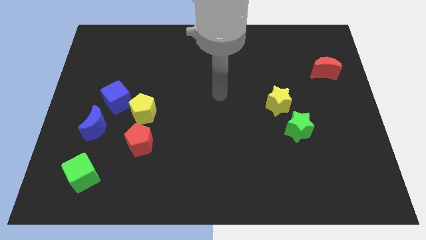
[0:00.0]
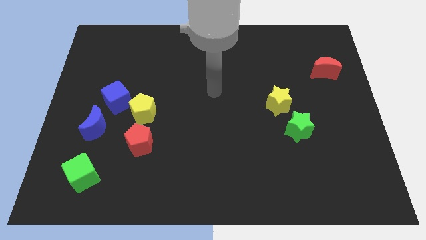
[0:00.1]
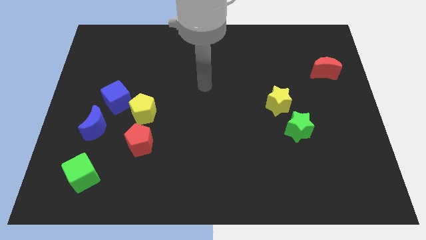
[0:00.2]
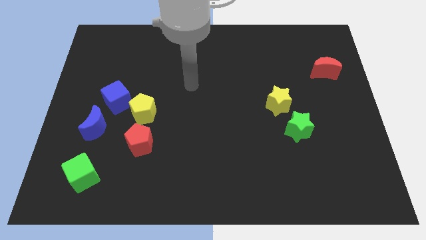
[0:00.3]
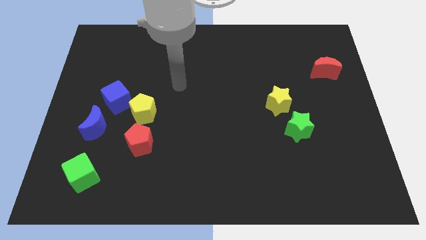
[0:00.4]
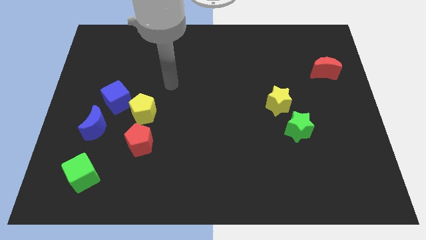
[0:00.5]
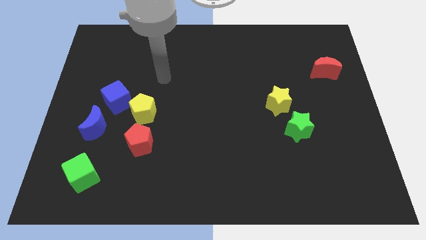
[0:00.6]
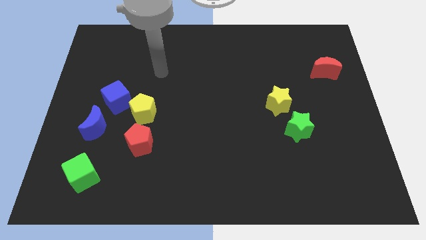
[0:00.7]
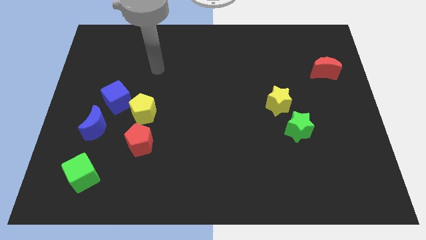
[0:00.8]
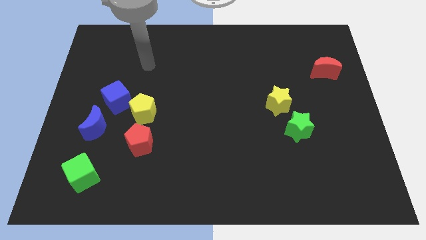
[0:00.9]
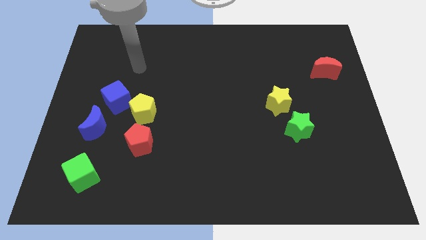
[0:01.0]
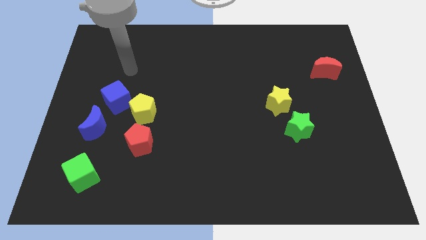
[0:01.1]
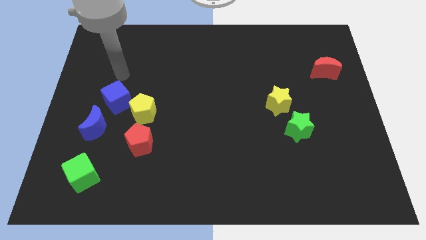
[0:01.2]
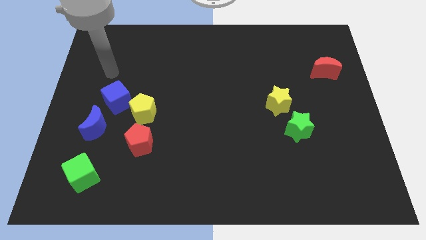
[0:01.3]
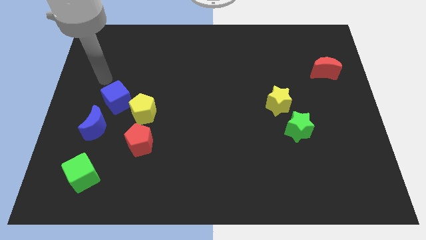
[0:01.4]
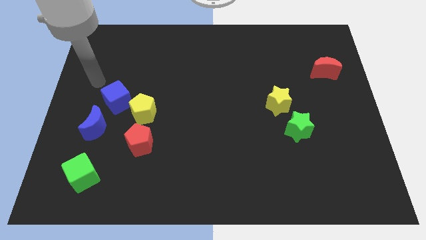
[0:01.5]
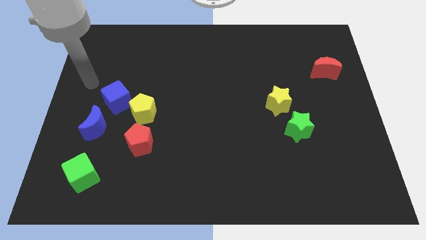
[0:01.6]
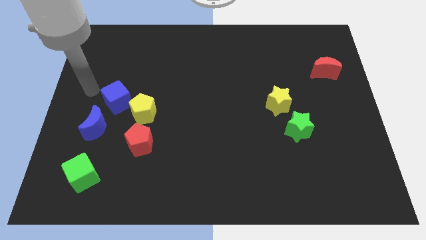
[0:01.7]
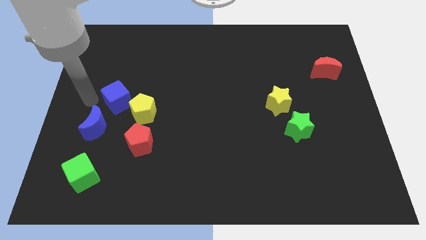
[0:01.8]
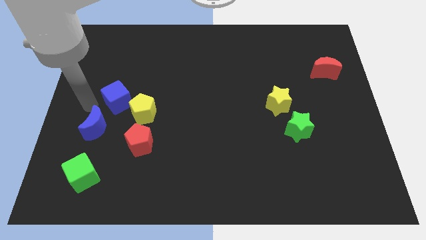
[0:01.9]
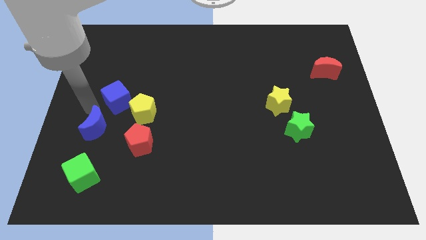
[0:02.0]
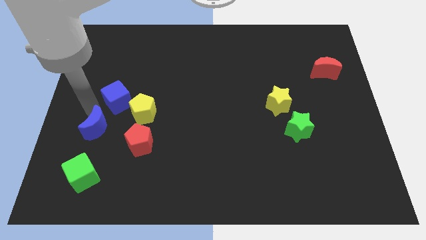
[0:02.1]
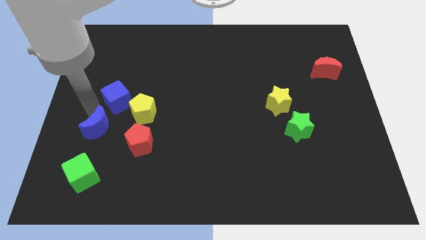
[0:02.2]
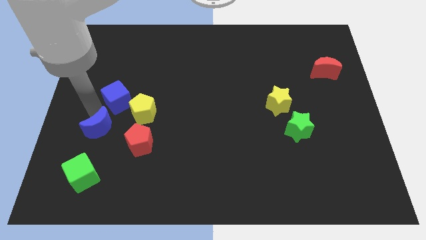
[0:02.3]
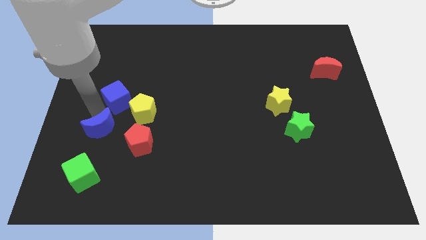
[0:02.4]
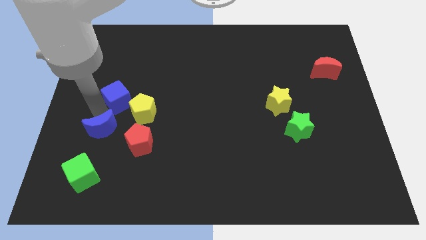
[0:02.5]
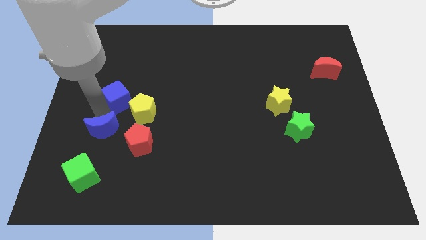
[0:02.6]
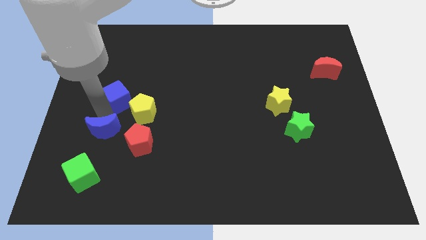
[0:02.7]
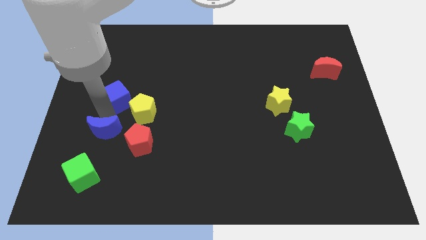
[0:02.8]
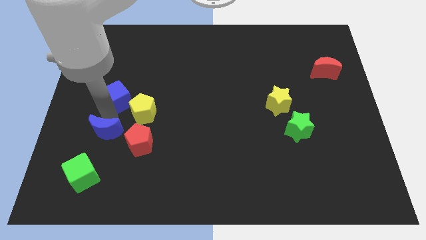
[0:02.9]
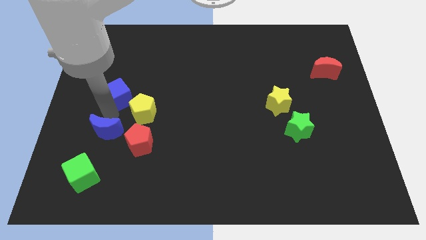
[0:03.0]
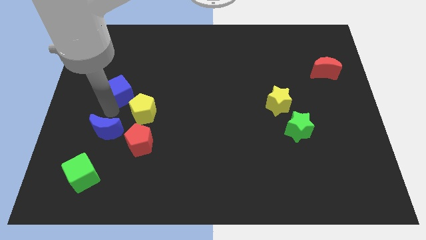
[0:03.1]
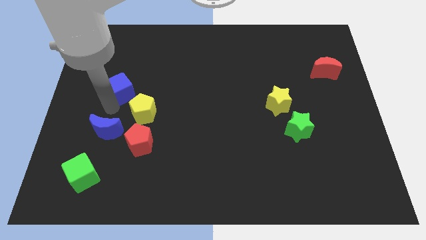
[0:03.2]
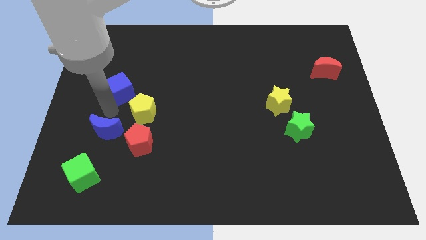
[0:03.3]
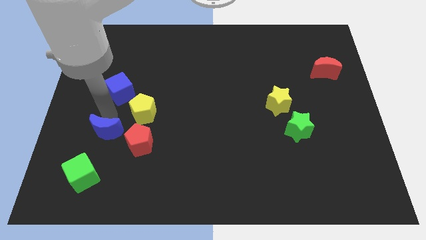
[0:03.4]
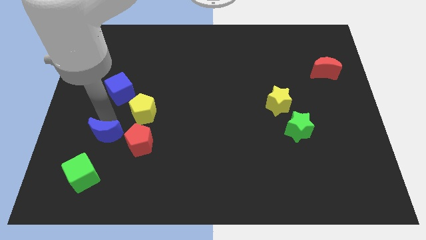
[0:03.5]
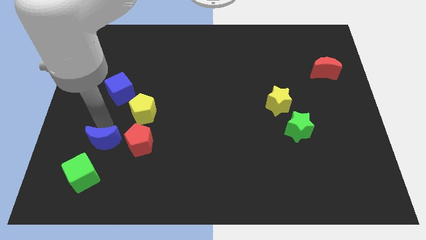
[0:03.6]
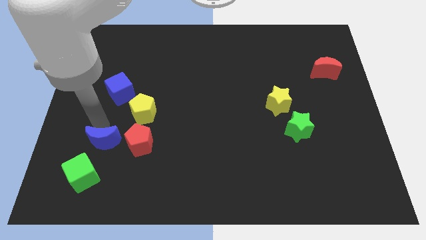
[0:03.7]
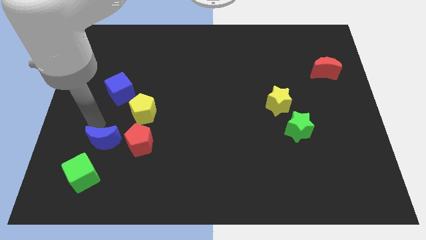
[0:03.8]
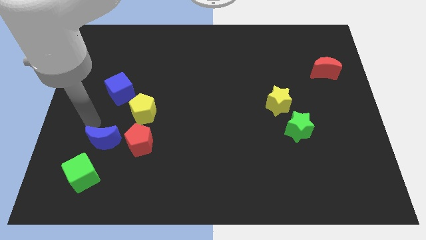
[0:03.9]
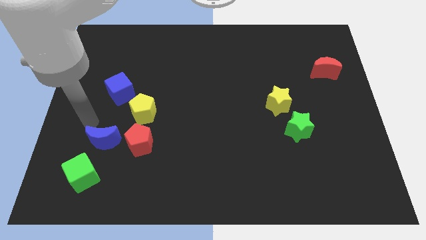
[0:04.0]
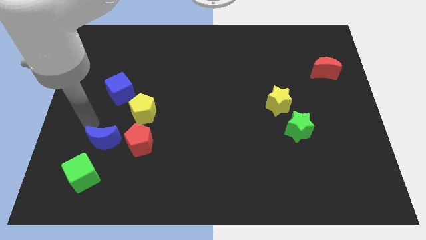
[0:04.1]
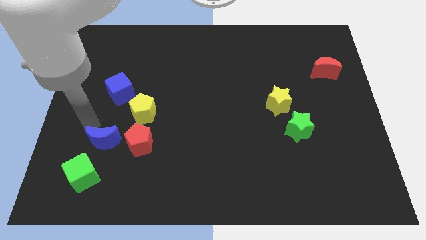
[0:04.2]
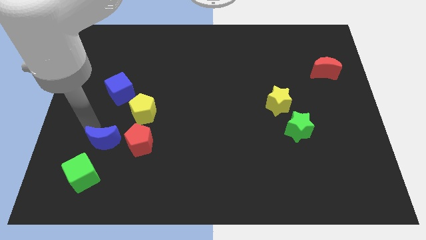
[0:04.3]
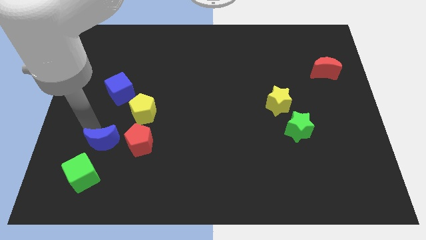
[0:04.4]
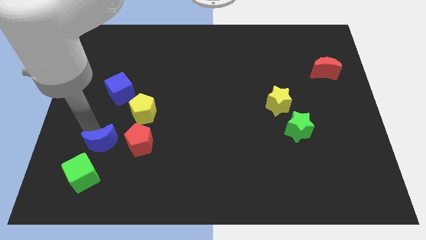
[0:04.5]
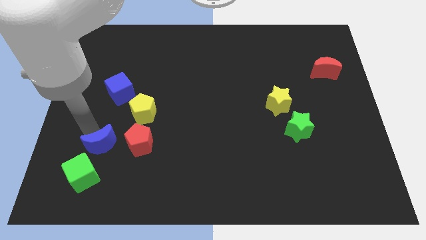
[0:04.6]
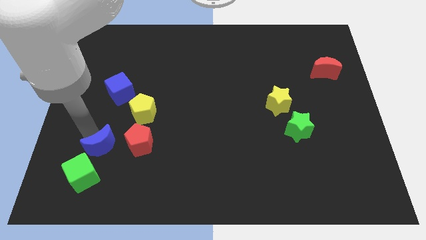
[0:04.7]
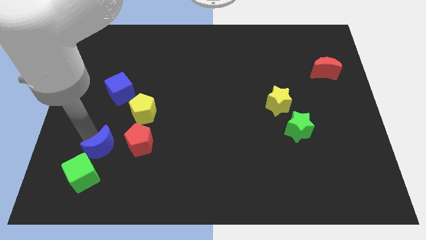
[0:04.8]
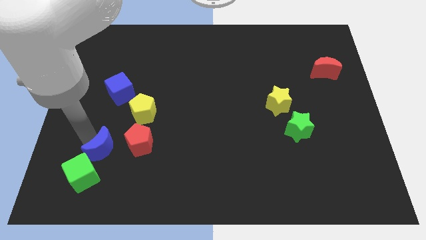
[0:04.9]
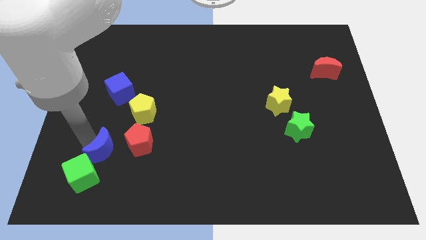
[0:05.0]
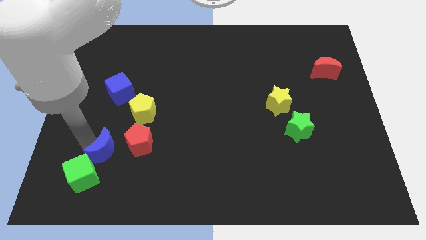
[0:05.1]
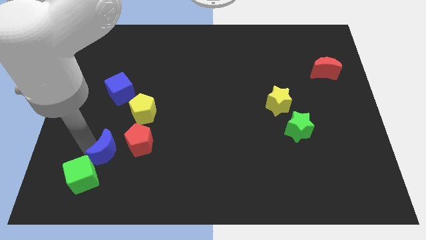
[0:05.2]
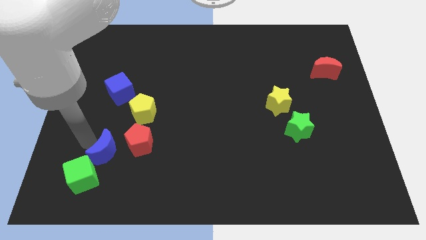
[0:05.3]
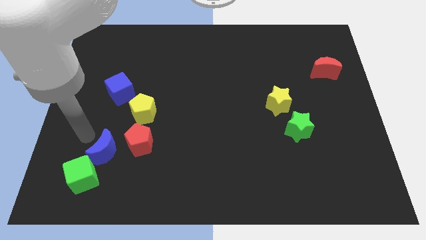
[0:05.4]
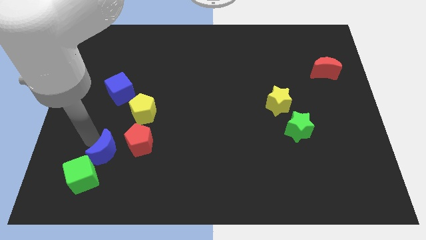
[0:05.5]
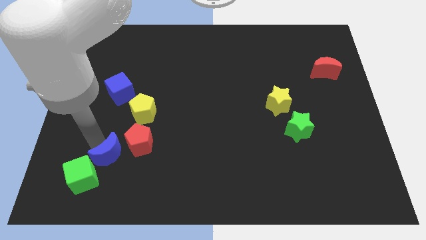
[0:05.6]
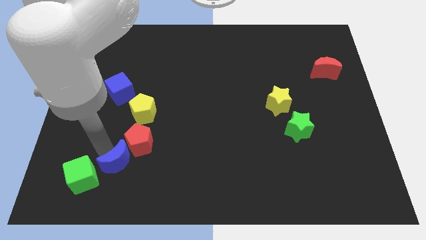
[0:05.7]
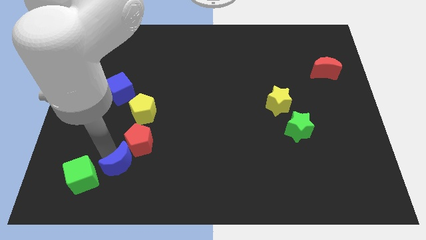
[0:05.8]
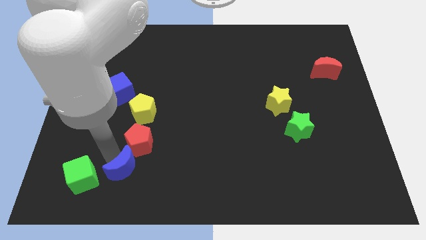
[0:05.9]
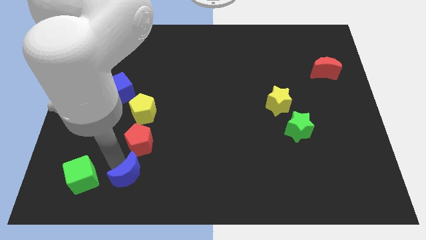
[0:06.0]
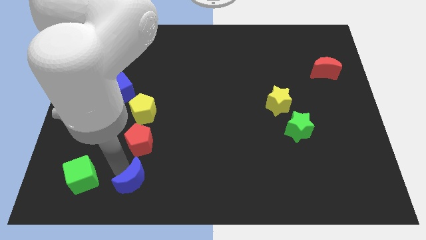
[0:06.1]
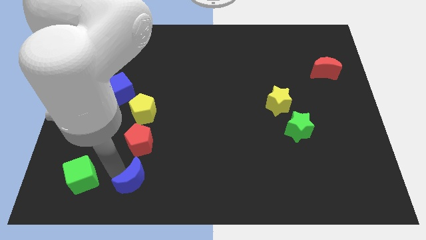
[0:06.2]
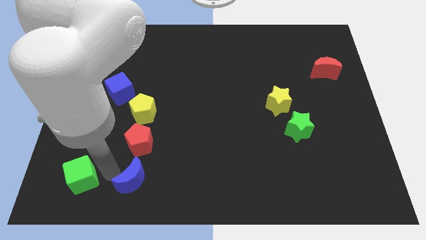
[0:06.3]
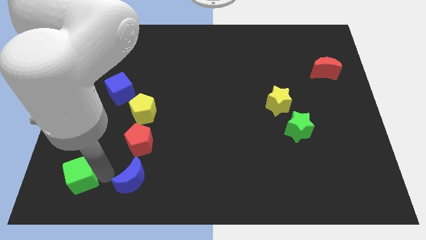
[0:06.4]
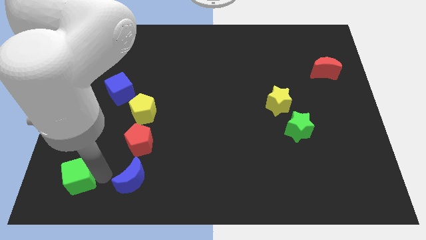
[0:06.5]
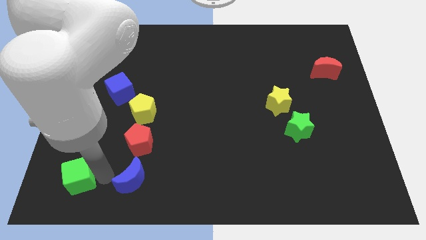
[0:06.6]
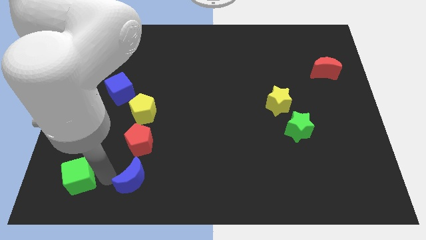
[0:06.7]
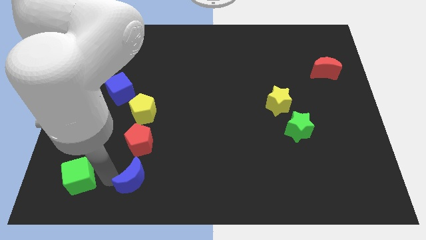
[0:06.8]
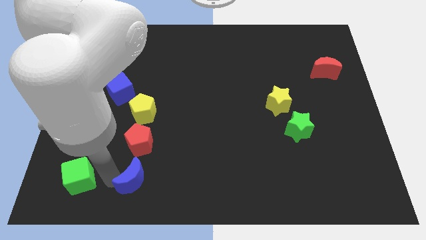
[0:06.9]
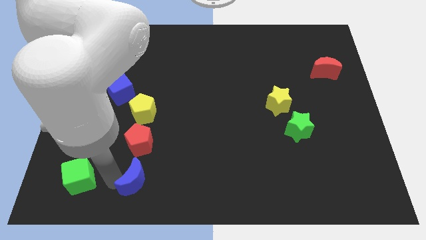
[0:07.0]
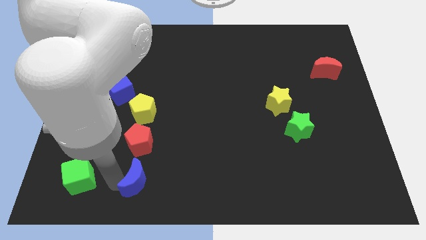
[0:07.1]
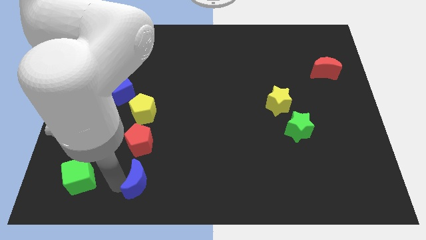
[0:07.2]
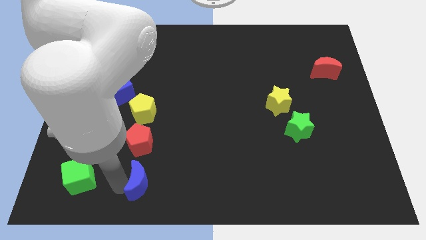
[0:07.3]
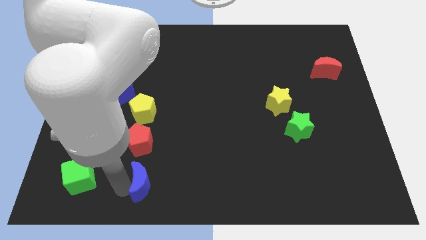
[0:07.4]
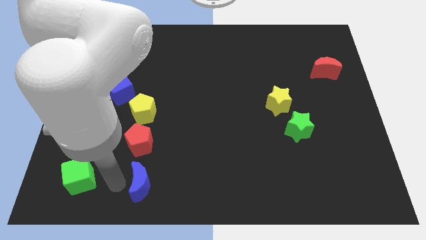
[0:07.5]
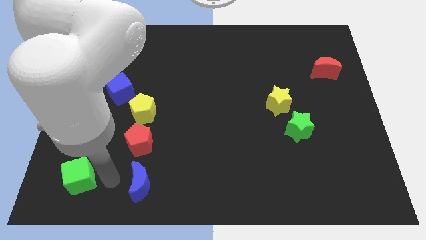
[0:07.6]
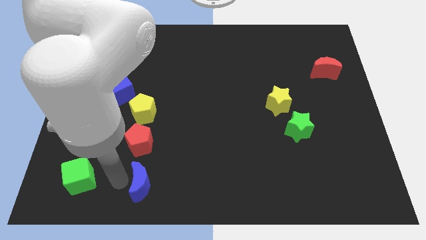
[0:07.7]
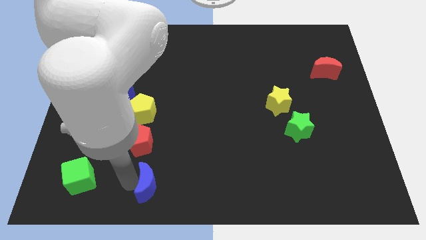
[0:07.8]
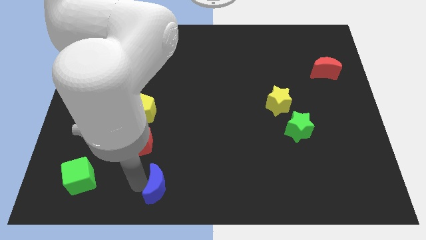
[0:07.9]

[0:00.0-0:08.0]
put the blue moon to the bottom side
